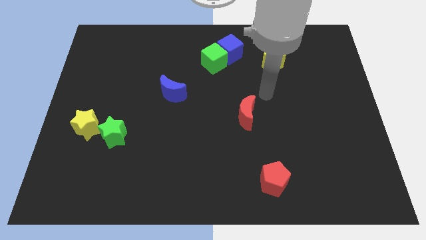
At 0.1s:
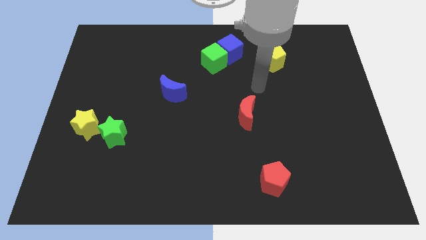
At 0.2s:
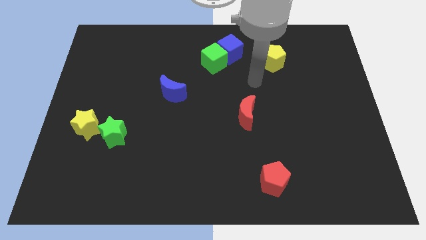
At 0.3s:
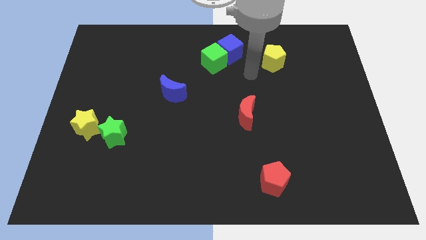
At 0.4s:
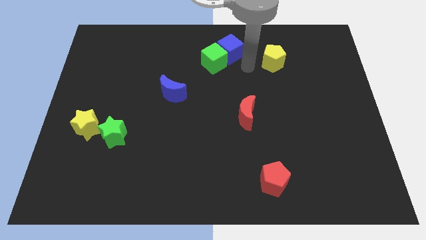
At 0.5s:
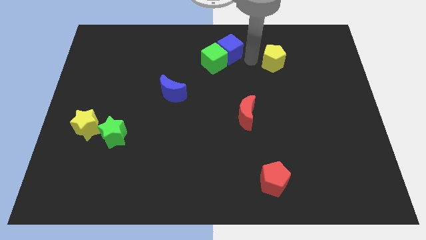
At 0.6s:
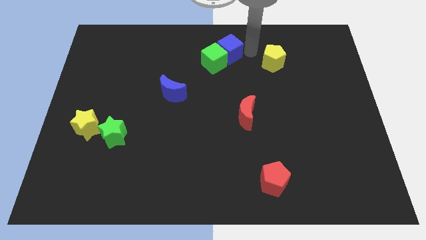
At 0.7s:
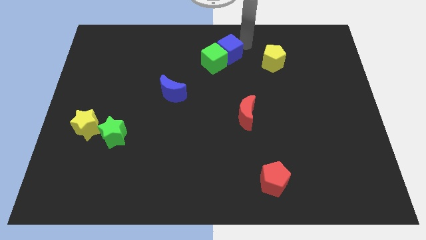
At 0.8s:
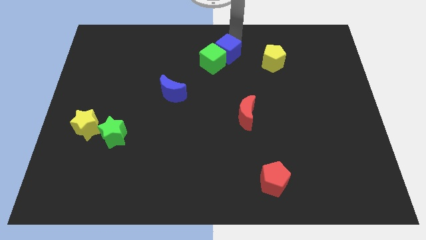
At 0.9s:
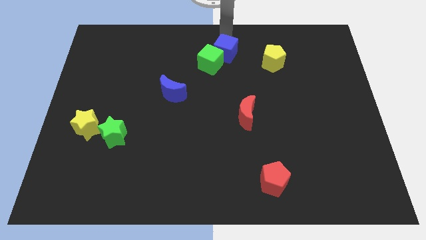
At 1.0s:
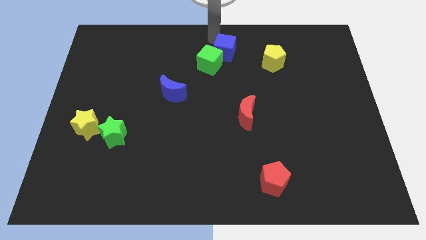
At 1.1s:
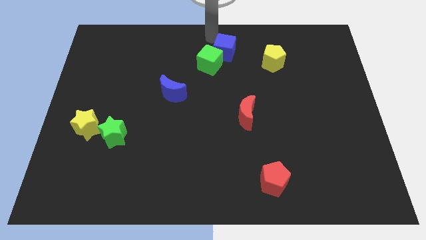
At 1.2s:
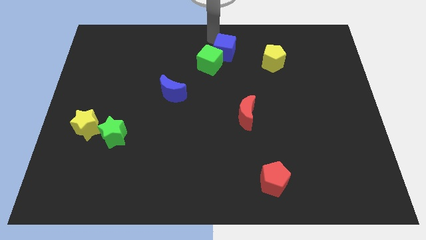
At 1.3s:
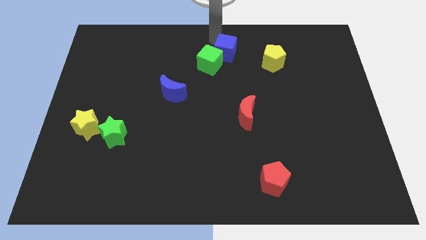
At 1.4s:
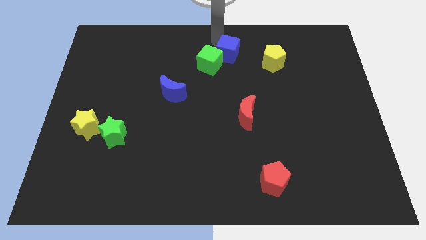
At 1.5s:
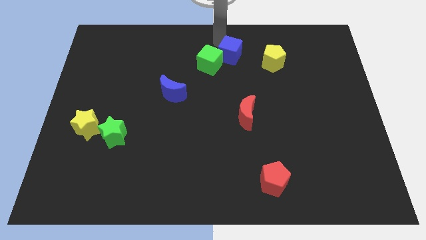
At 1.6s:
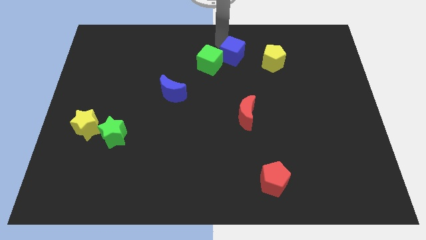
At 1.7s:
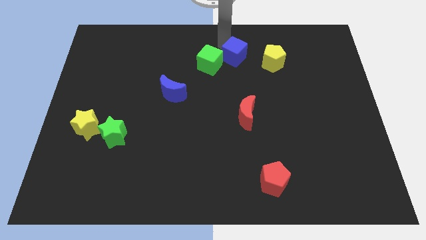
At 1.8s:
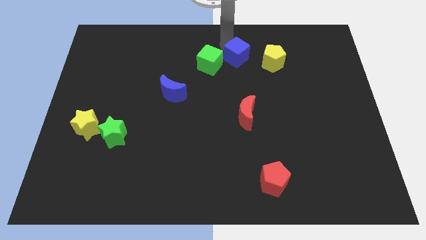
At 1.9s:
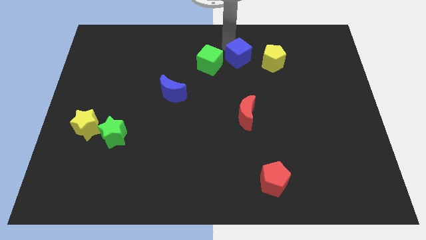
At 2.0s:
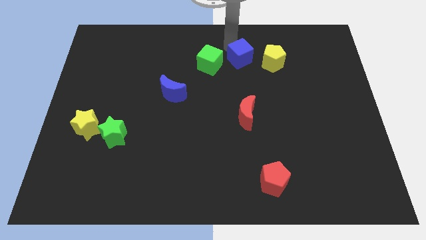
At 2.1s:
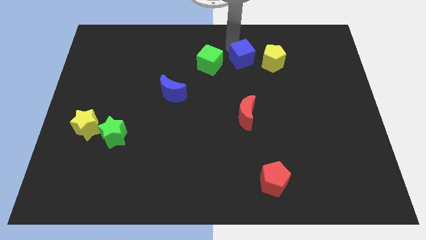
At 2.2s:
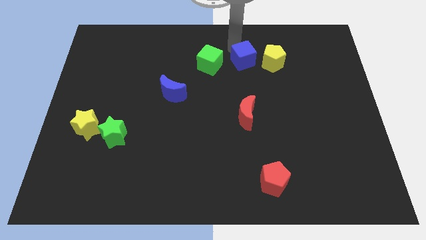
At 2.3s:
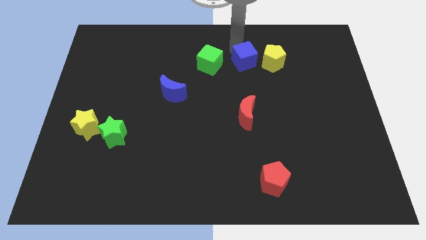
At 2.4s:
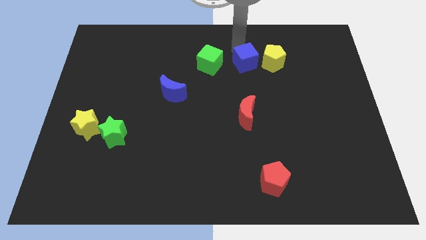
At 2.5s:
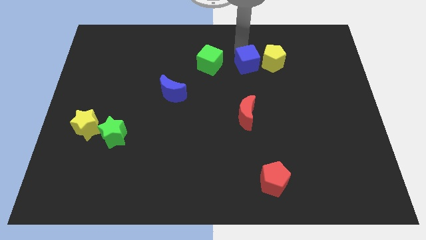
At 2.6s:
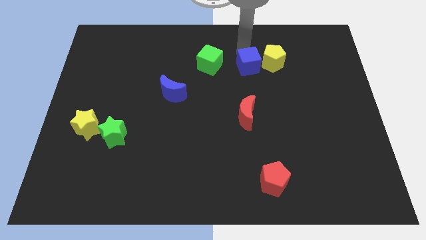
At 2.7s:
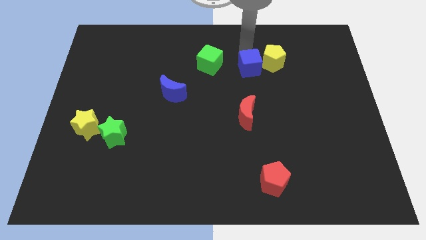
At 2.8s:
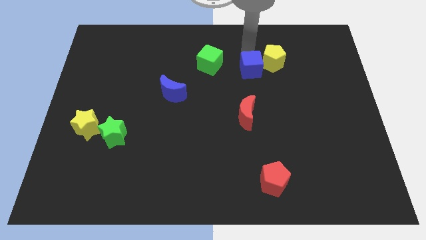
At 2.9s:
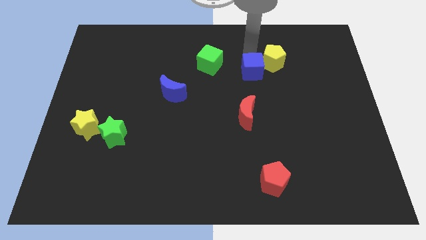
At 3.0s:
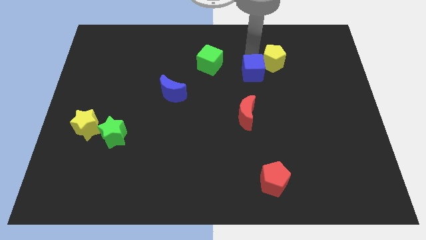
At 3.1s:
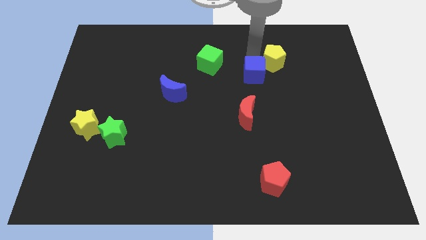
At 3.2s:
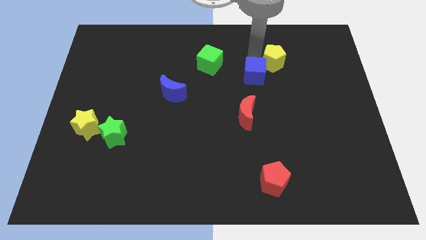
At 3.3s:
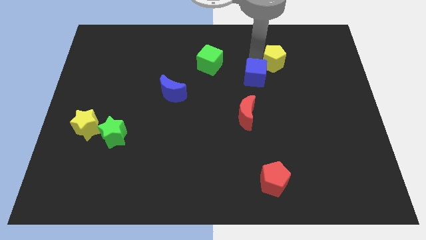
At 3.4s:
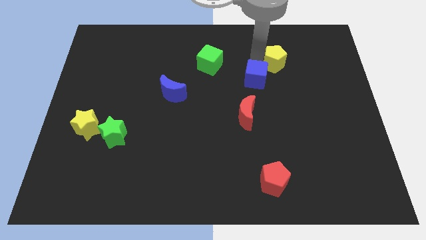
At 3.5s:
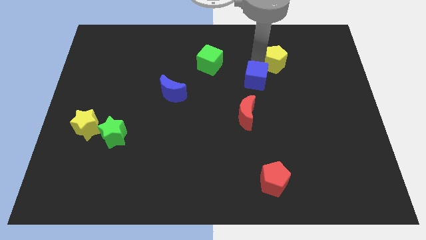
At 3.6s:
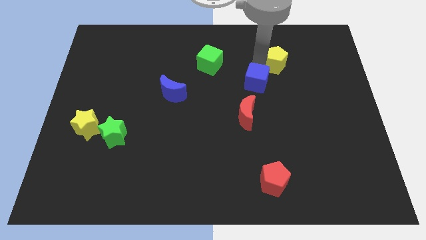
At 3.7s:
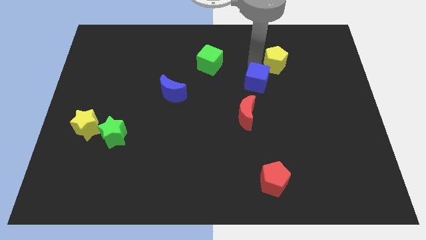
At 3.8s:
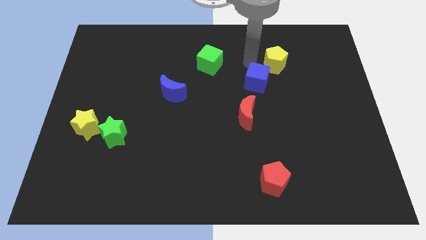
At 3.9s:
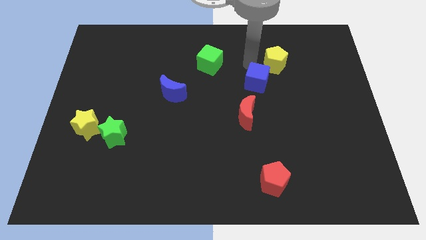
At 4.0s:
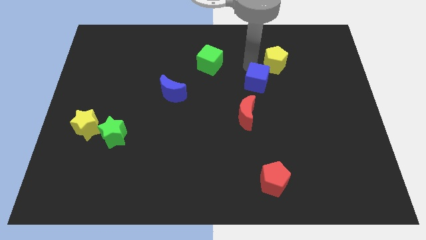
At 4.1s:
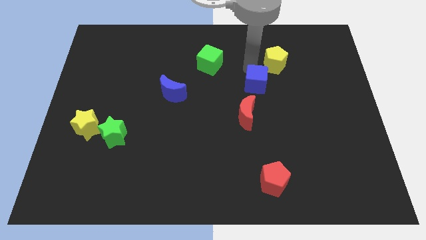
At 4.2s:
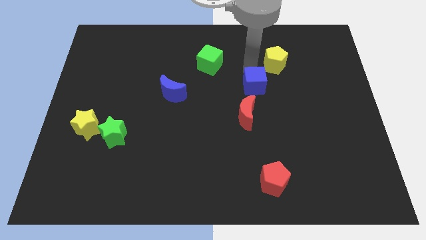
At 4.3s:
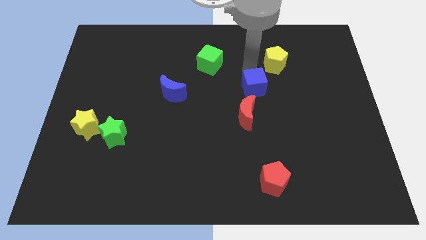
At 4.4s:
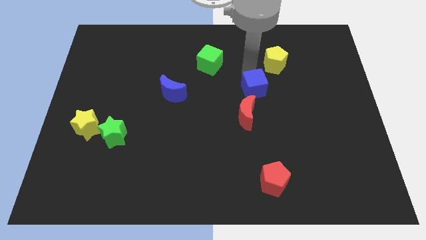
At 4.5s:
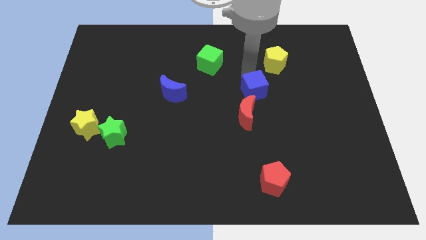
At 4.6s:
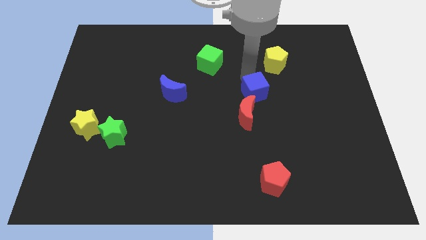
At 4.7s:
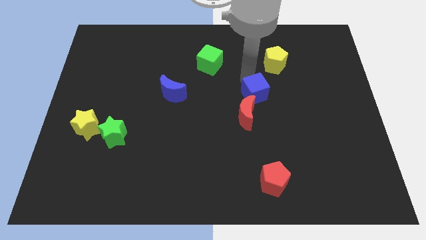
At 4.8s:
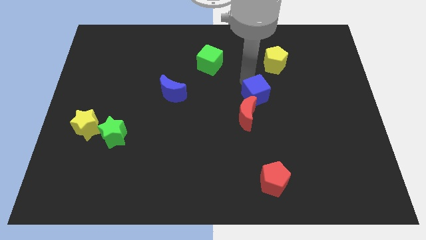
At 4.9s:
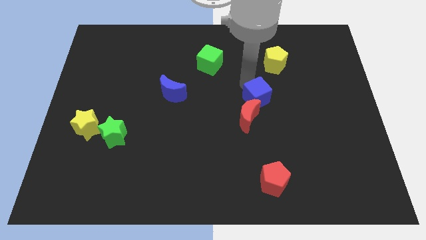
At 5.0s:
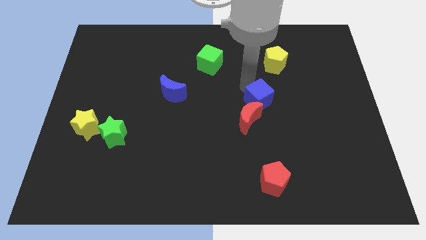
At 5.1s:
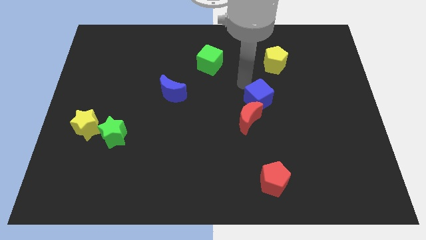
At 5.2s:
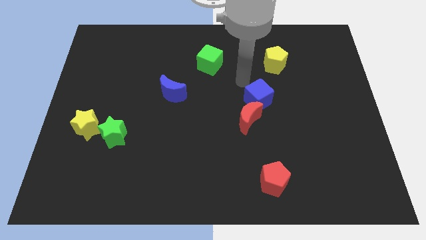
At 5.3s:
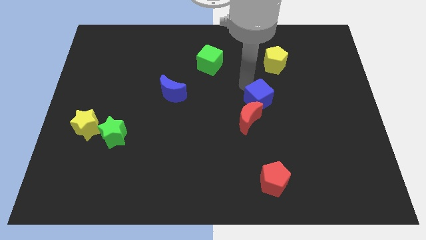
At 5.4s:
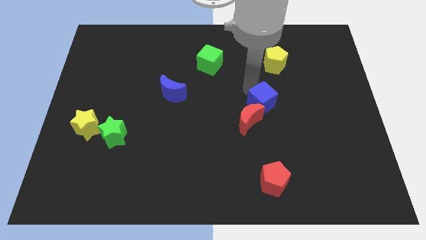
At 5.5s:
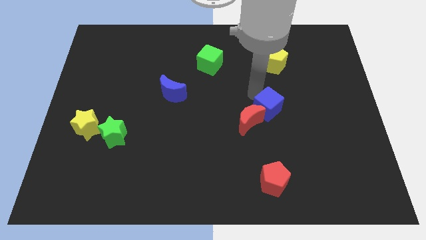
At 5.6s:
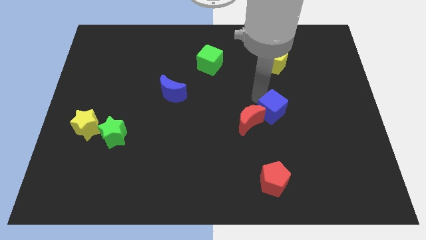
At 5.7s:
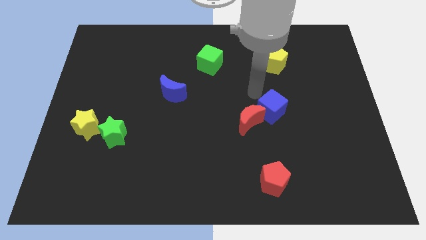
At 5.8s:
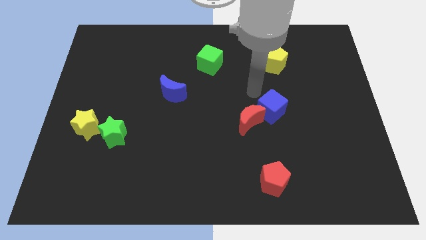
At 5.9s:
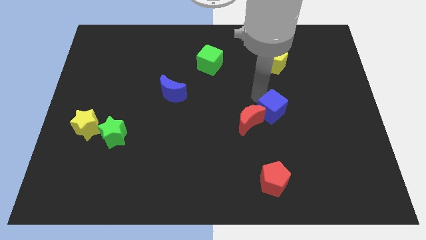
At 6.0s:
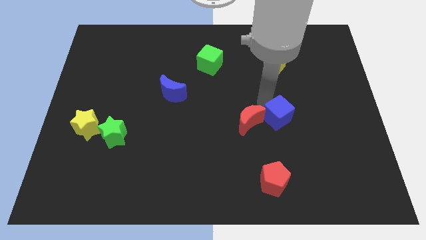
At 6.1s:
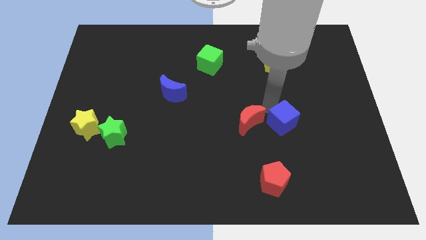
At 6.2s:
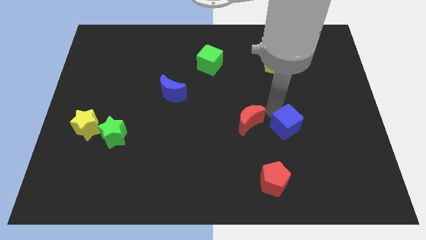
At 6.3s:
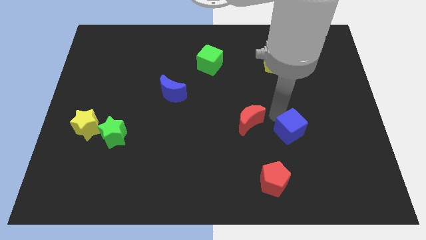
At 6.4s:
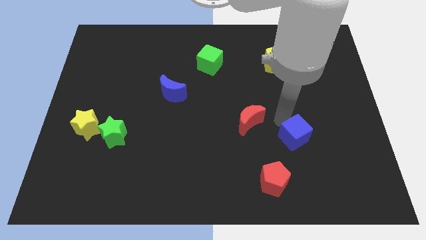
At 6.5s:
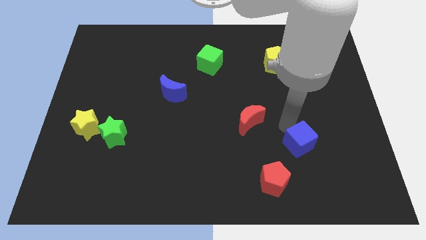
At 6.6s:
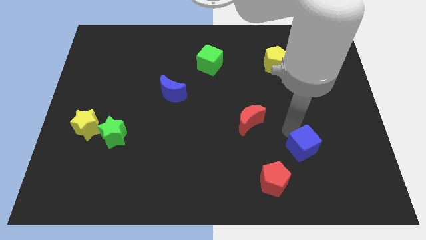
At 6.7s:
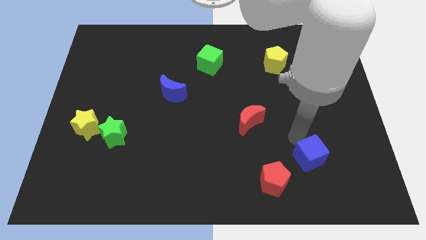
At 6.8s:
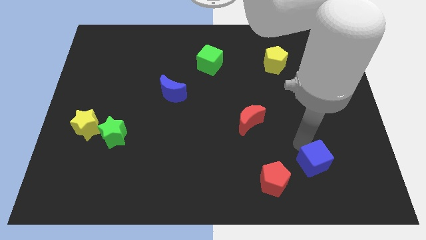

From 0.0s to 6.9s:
put the blue cube to the right side of the red pentagon
